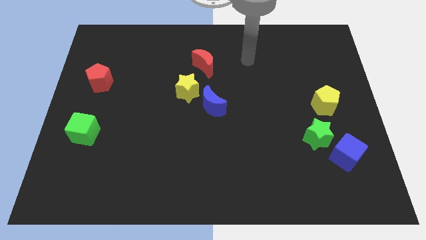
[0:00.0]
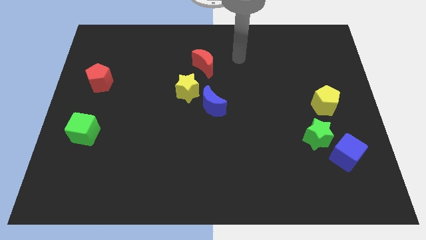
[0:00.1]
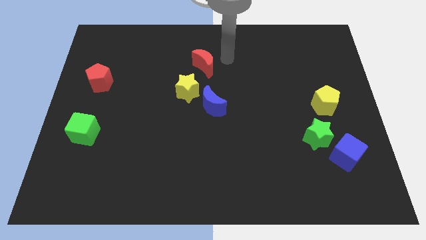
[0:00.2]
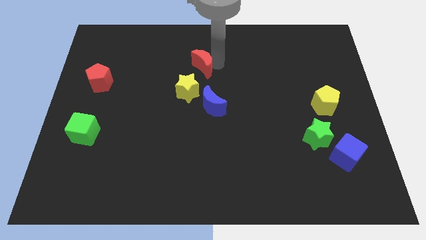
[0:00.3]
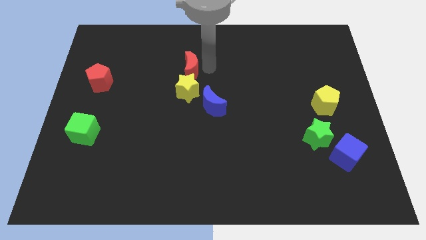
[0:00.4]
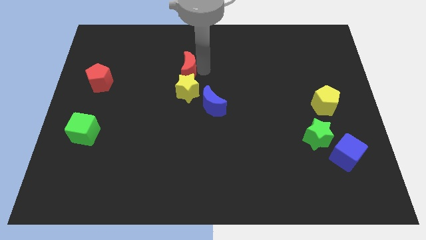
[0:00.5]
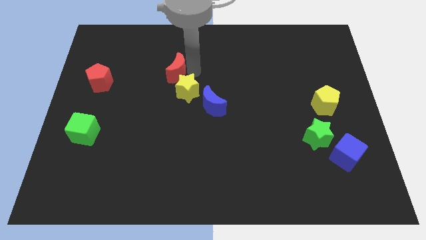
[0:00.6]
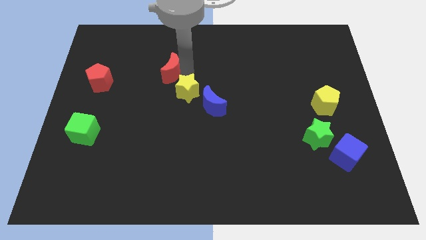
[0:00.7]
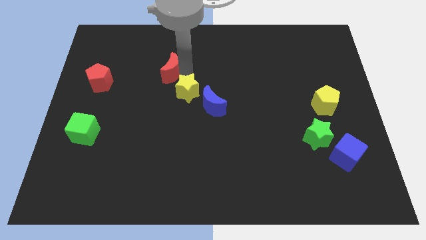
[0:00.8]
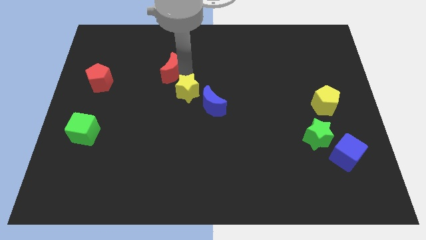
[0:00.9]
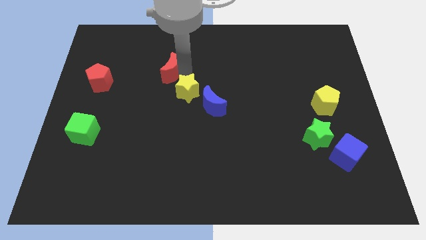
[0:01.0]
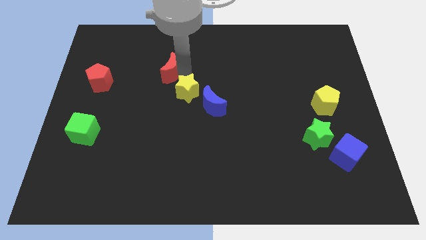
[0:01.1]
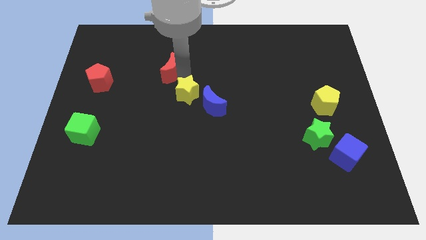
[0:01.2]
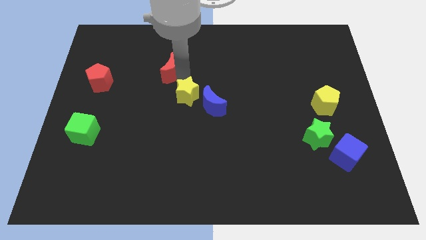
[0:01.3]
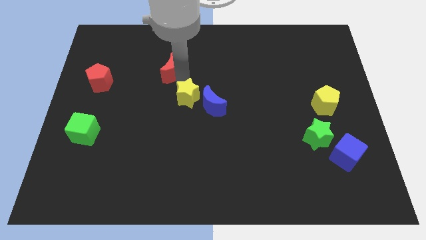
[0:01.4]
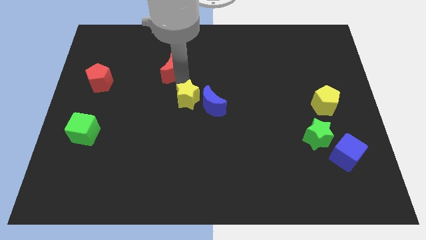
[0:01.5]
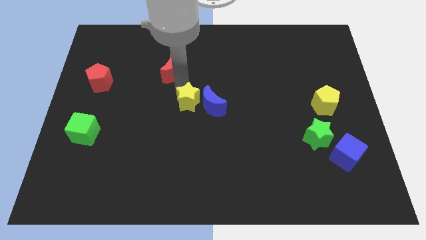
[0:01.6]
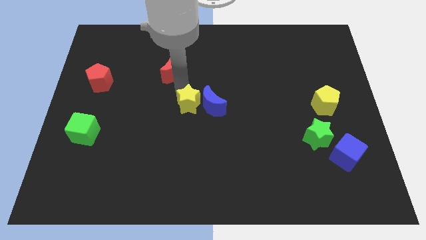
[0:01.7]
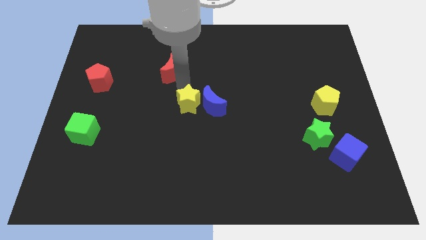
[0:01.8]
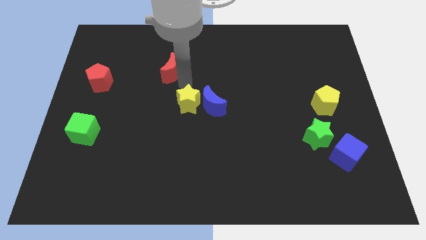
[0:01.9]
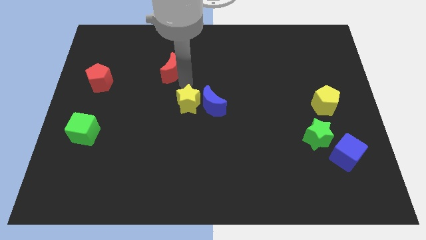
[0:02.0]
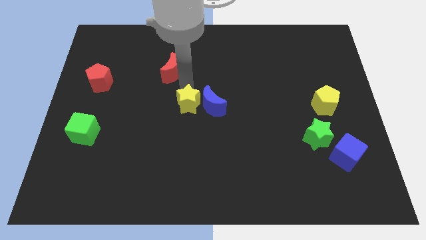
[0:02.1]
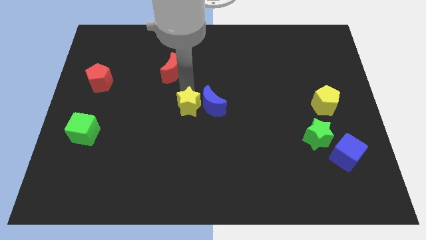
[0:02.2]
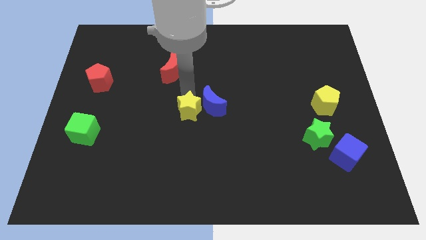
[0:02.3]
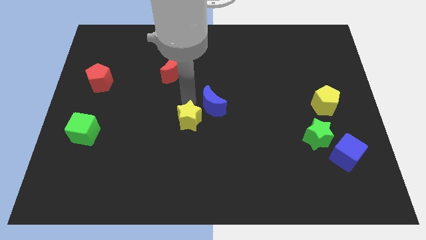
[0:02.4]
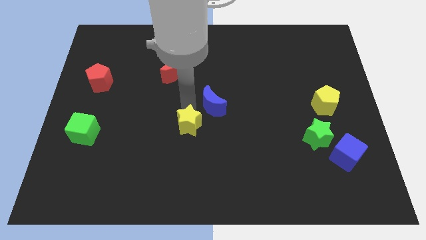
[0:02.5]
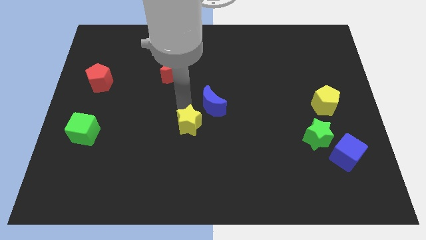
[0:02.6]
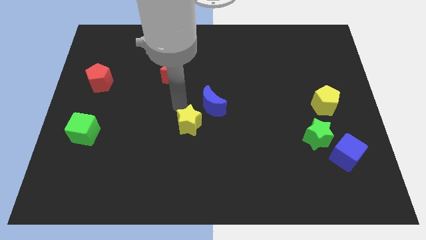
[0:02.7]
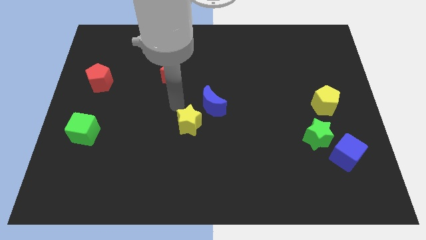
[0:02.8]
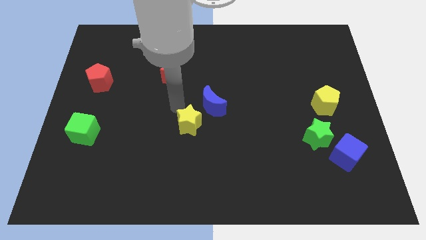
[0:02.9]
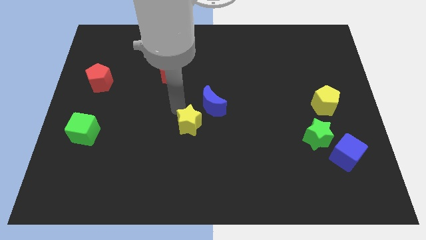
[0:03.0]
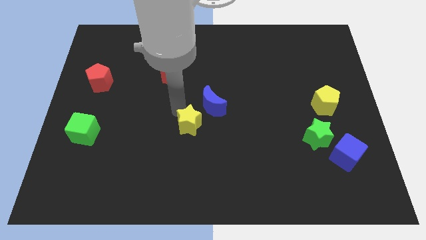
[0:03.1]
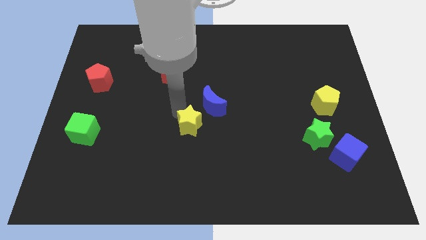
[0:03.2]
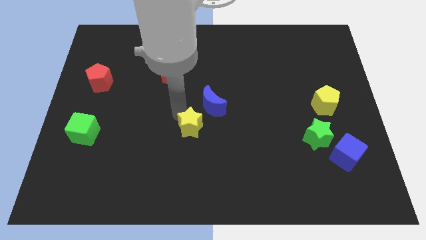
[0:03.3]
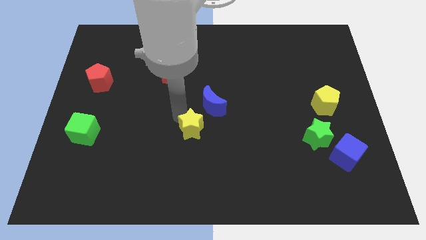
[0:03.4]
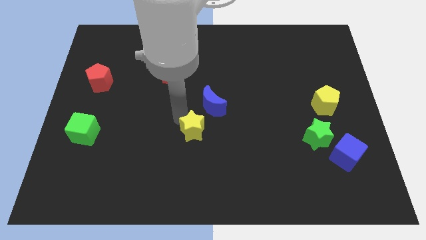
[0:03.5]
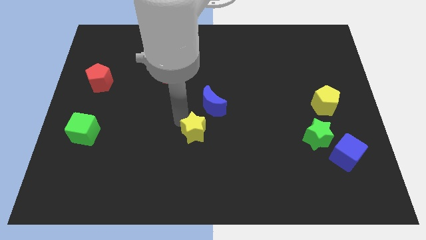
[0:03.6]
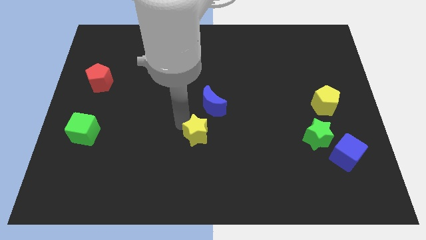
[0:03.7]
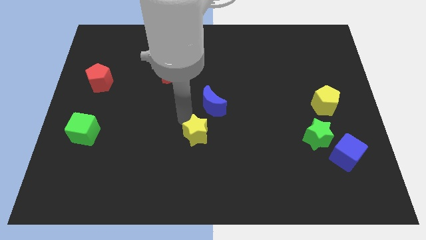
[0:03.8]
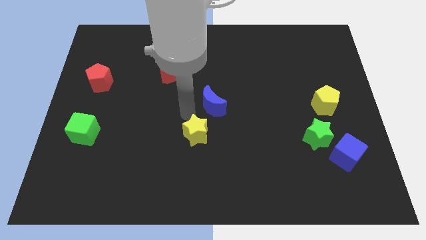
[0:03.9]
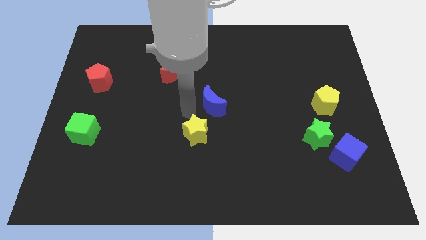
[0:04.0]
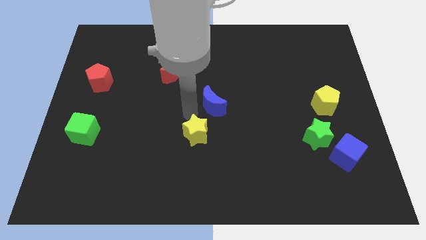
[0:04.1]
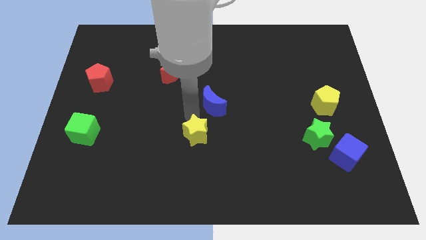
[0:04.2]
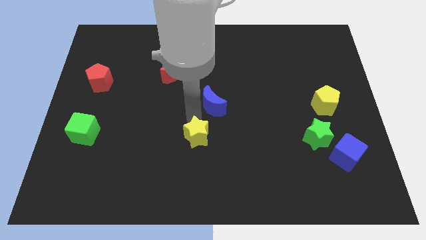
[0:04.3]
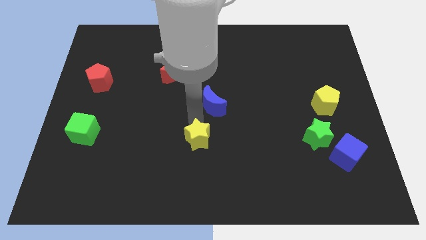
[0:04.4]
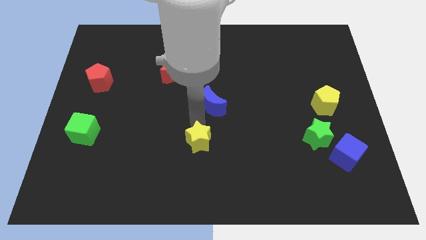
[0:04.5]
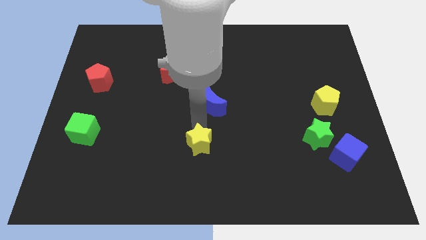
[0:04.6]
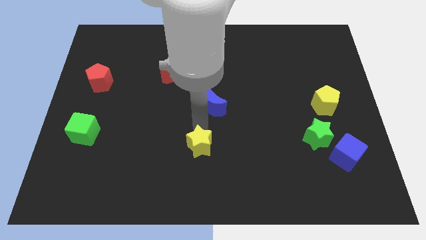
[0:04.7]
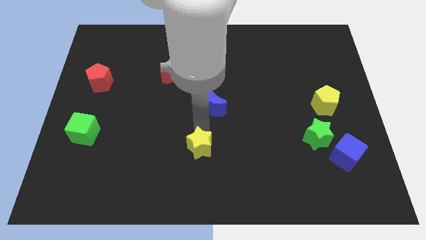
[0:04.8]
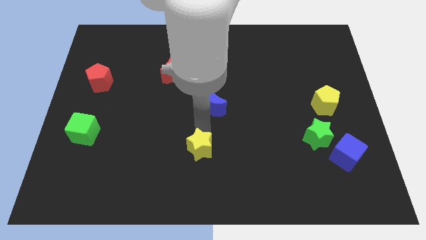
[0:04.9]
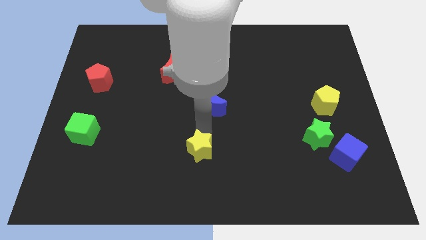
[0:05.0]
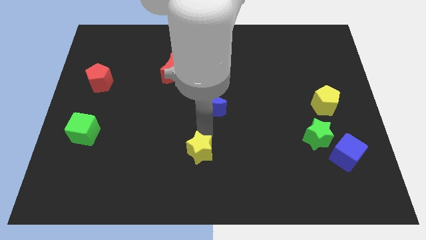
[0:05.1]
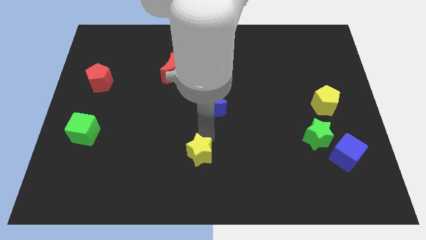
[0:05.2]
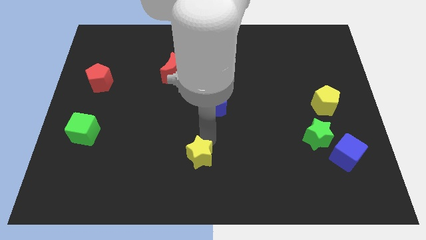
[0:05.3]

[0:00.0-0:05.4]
push the yellow star to the bottom side
